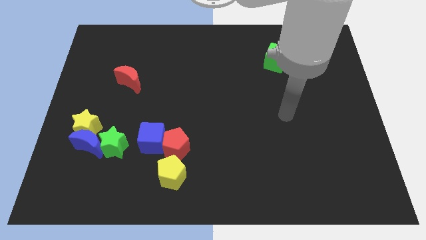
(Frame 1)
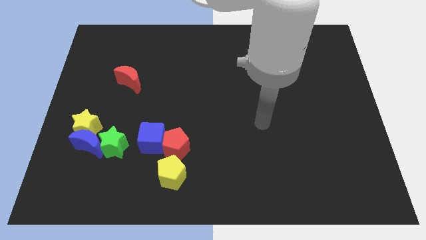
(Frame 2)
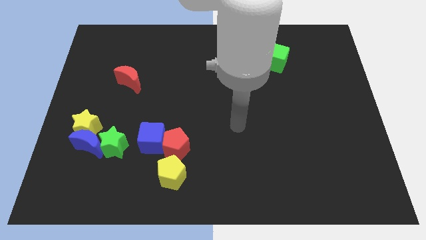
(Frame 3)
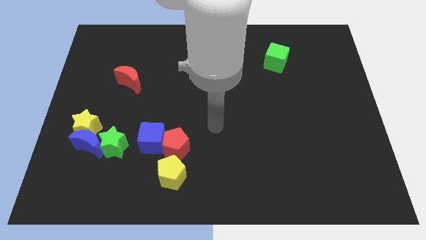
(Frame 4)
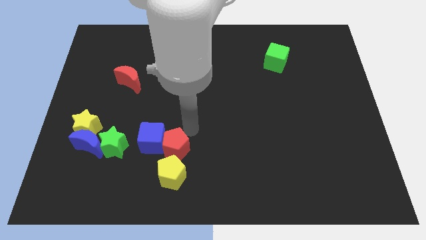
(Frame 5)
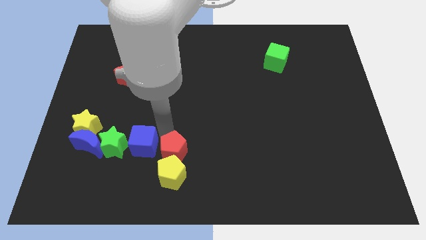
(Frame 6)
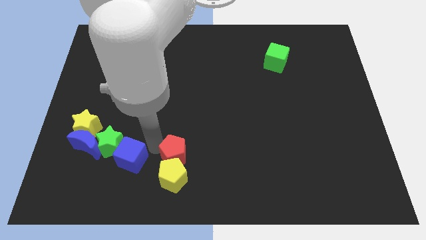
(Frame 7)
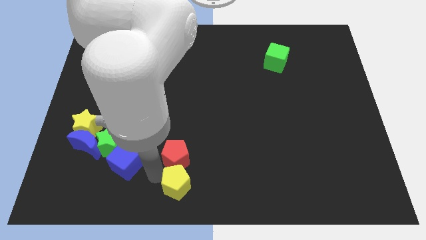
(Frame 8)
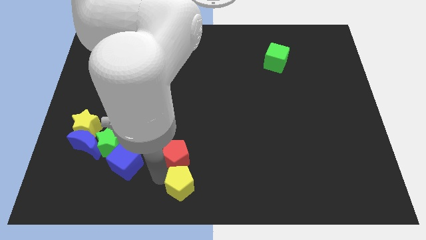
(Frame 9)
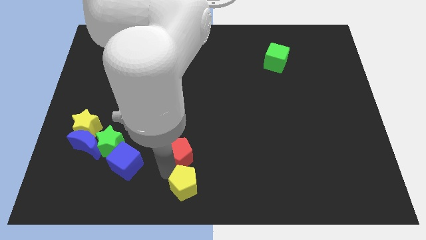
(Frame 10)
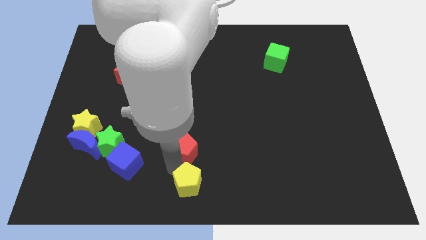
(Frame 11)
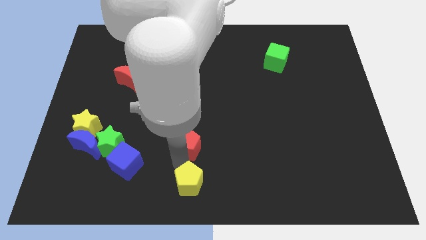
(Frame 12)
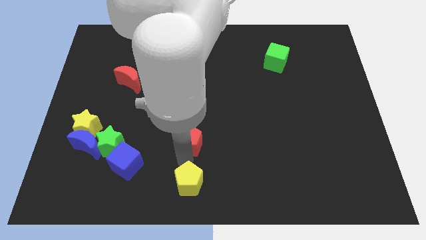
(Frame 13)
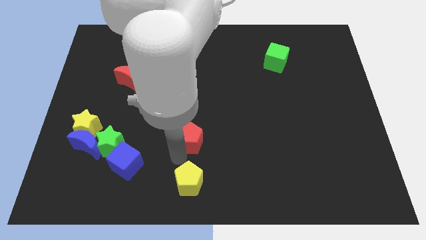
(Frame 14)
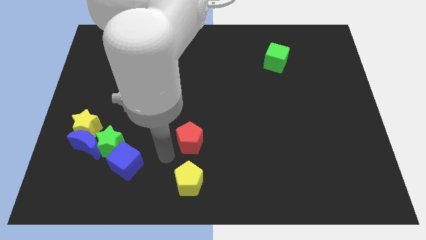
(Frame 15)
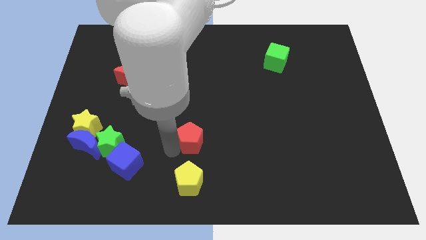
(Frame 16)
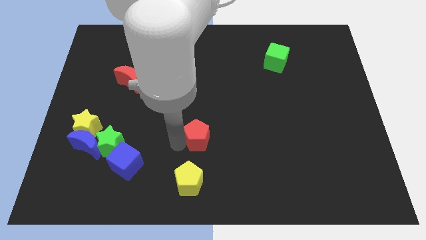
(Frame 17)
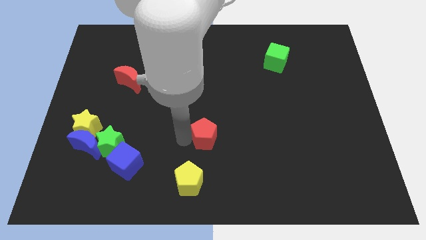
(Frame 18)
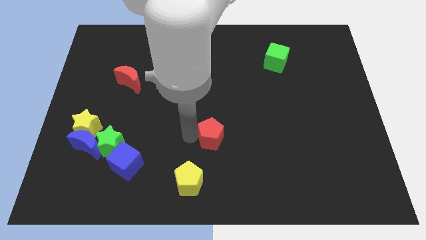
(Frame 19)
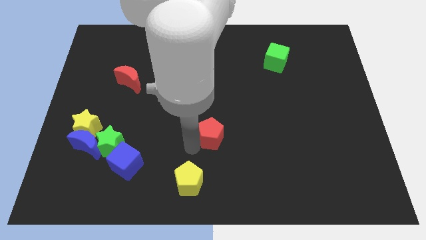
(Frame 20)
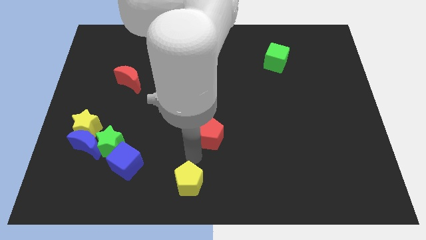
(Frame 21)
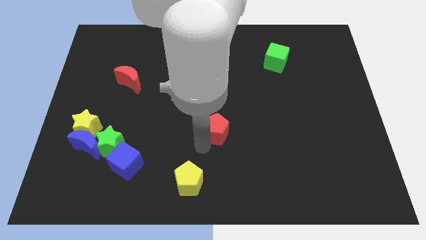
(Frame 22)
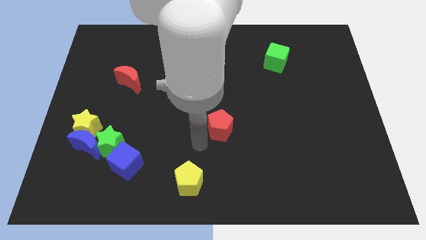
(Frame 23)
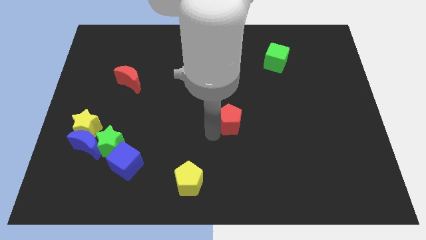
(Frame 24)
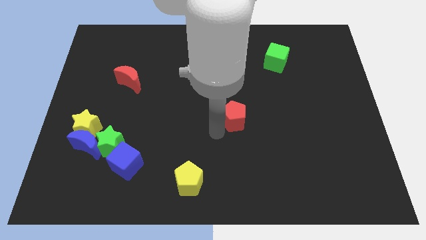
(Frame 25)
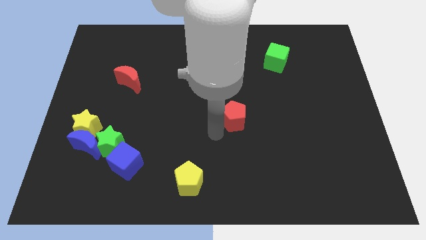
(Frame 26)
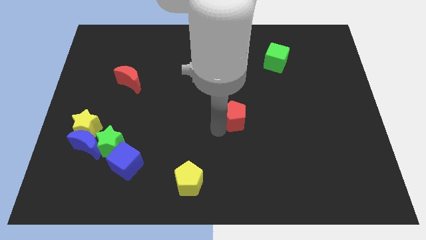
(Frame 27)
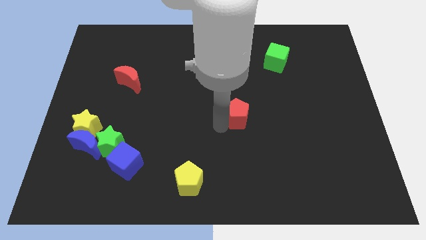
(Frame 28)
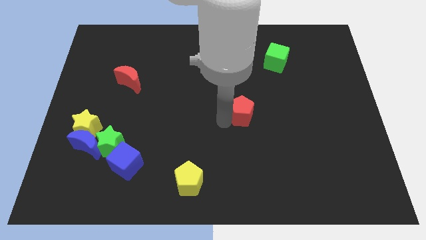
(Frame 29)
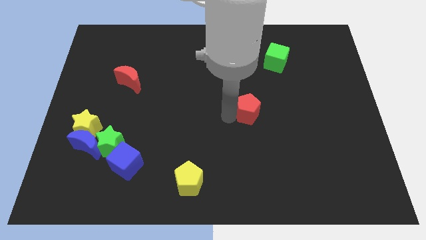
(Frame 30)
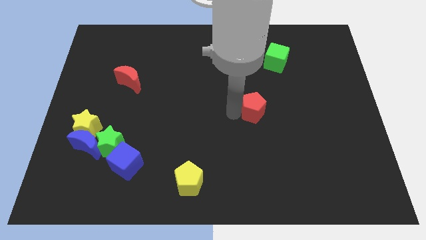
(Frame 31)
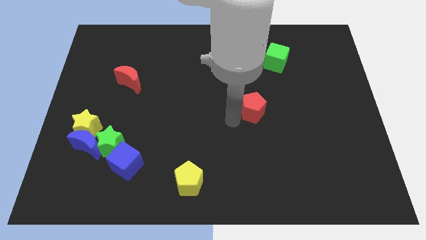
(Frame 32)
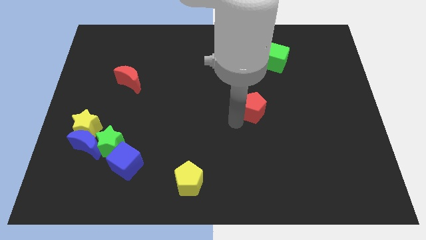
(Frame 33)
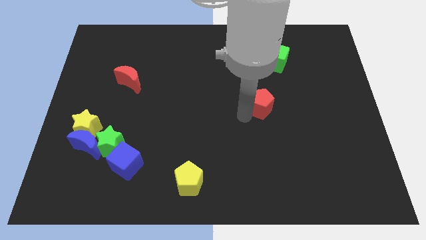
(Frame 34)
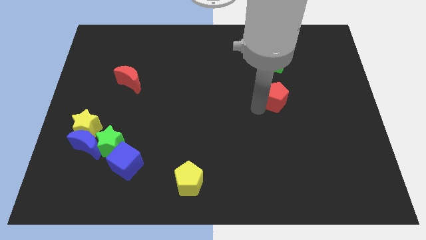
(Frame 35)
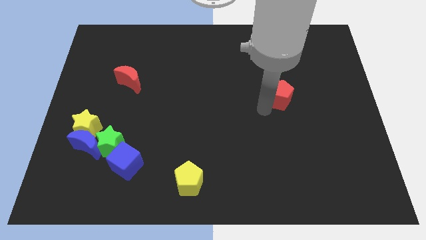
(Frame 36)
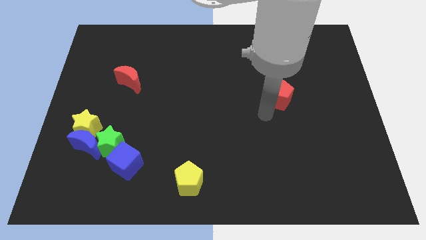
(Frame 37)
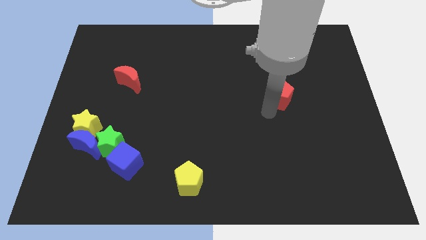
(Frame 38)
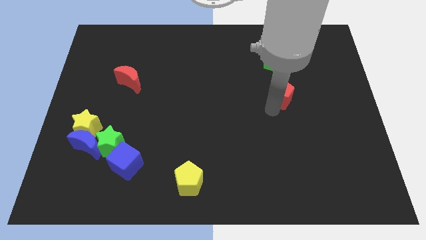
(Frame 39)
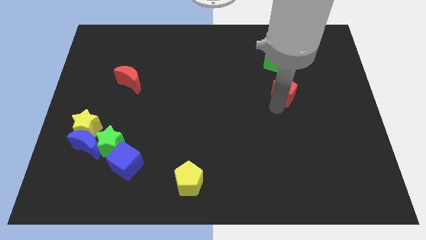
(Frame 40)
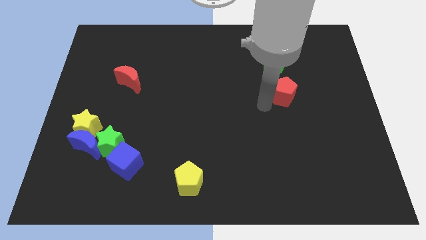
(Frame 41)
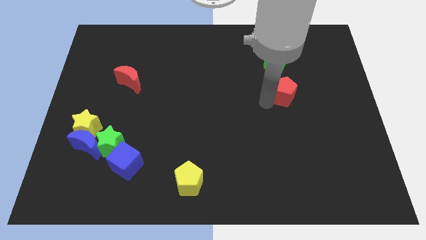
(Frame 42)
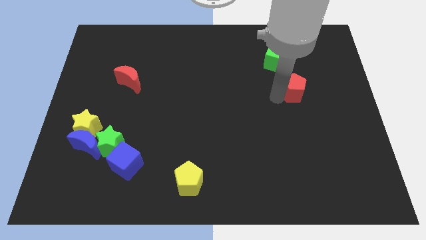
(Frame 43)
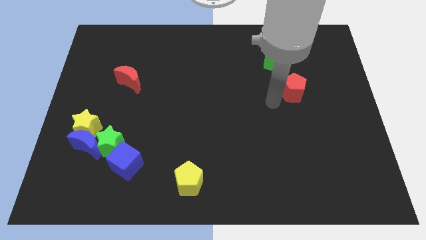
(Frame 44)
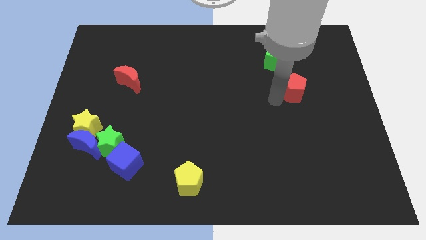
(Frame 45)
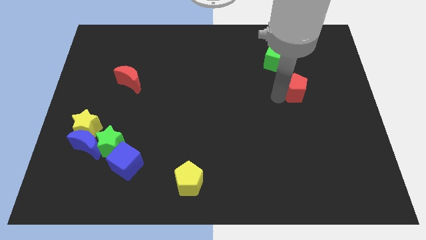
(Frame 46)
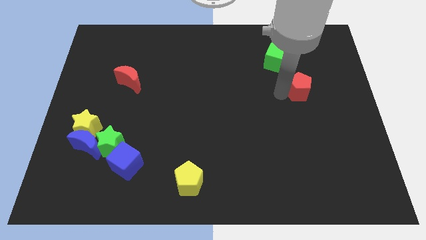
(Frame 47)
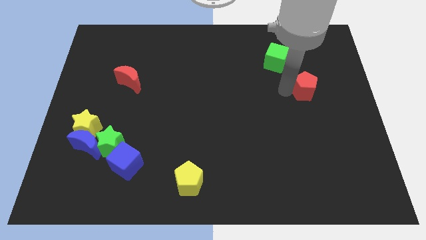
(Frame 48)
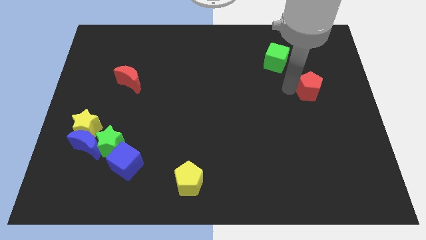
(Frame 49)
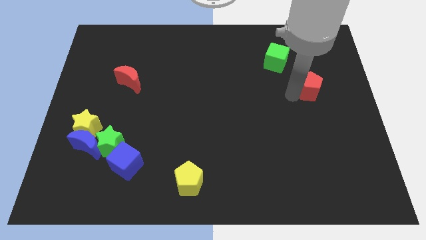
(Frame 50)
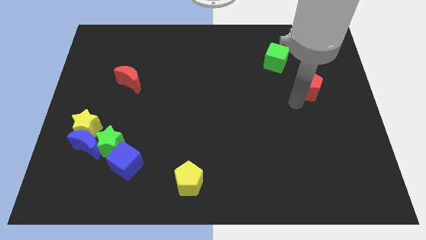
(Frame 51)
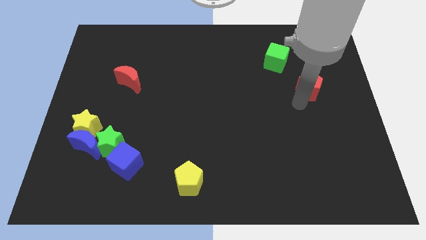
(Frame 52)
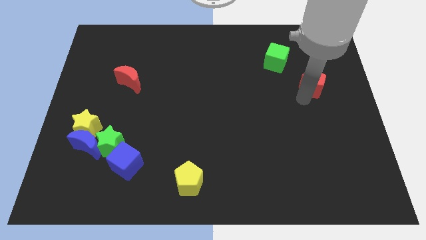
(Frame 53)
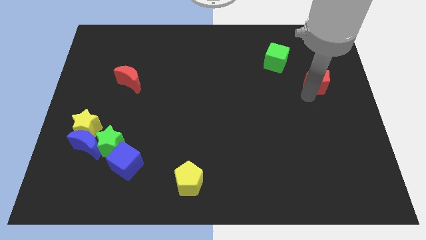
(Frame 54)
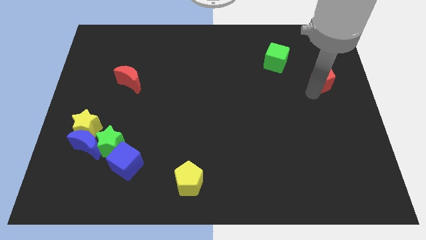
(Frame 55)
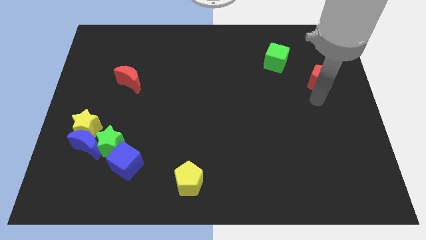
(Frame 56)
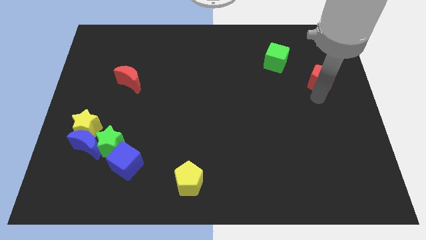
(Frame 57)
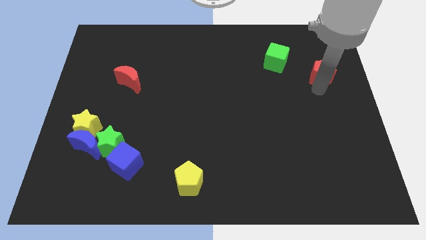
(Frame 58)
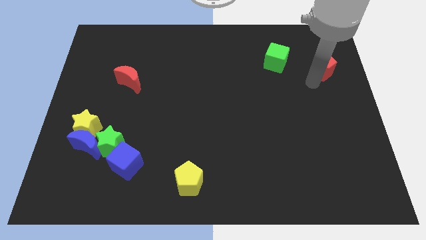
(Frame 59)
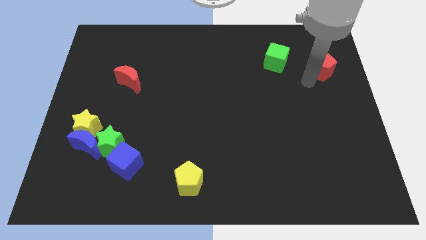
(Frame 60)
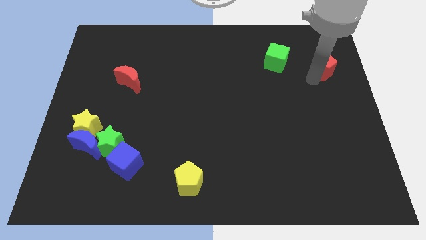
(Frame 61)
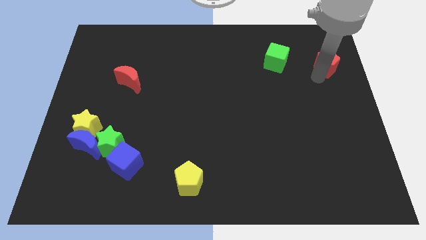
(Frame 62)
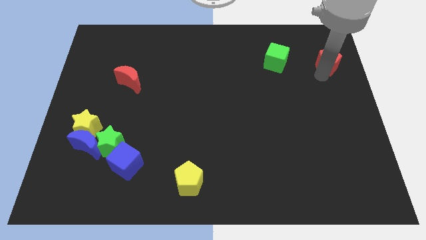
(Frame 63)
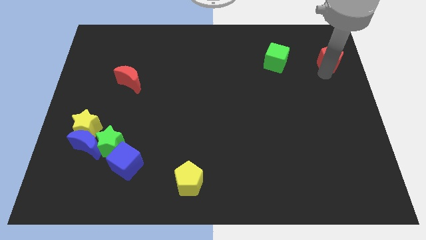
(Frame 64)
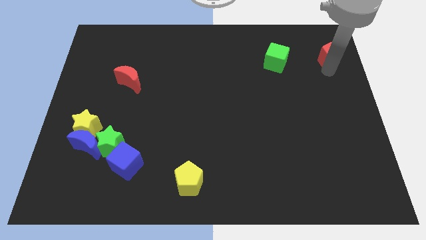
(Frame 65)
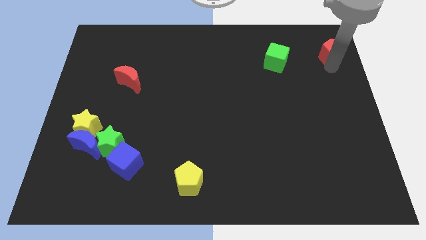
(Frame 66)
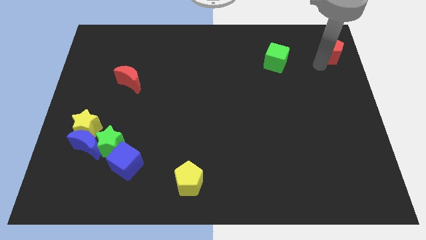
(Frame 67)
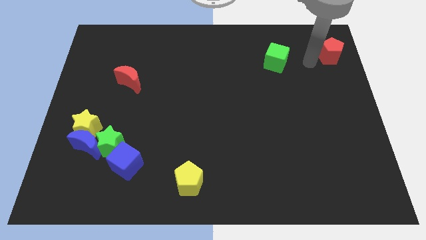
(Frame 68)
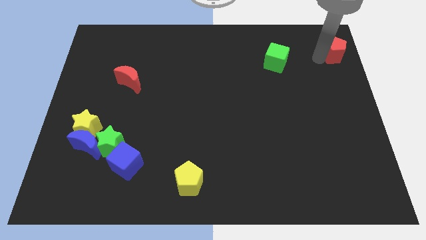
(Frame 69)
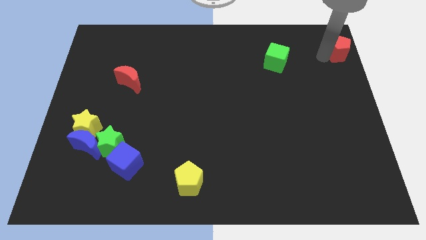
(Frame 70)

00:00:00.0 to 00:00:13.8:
slide the red pentagon to the top right of the board
